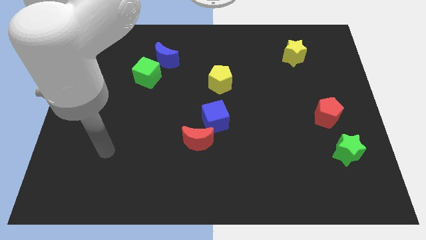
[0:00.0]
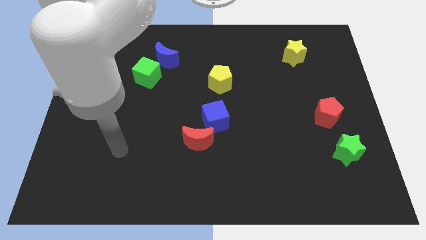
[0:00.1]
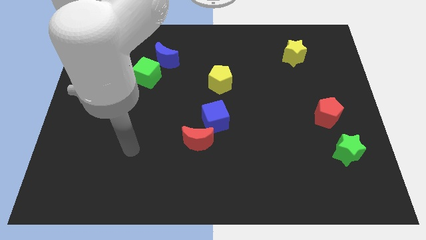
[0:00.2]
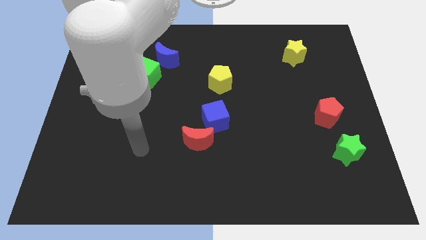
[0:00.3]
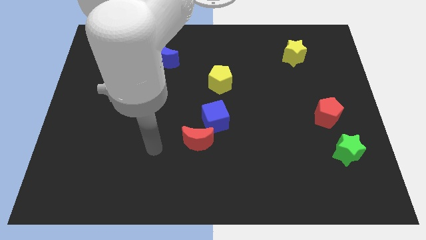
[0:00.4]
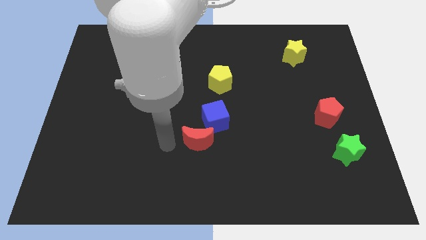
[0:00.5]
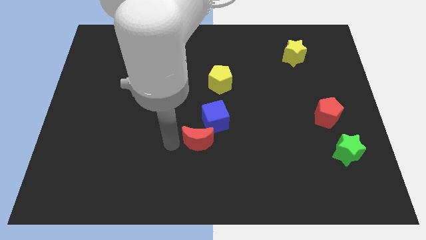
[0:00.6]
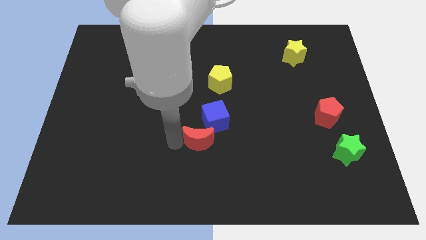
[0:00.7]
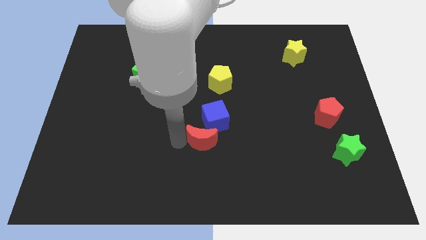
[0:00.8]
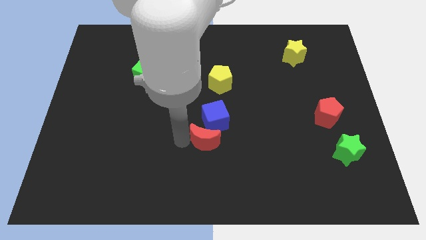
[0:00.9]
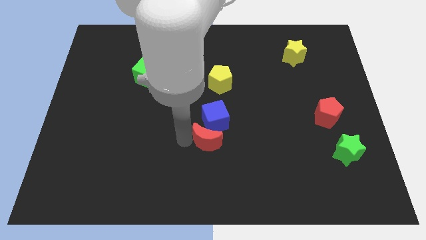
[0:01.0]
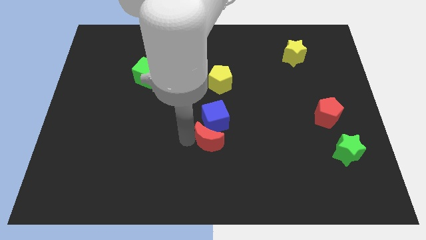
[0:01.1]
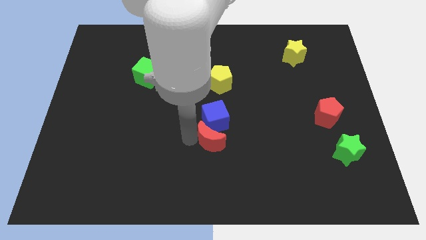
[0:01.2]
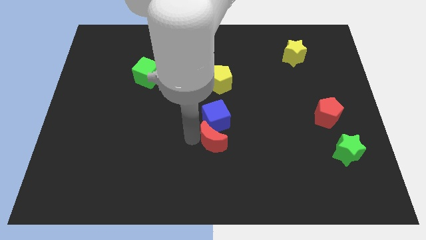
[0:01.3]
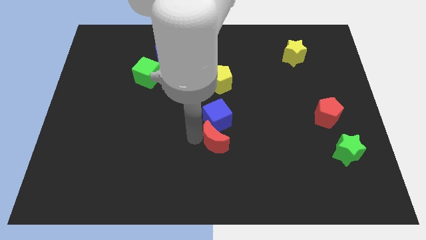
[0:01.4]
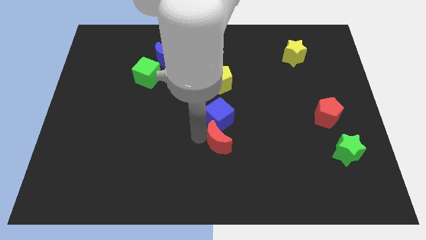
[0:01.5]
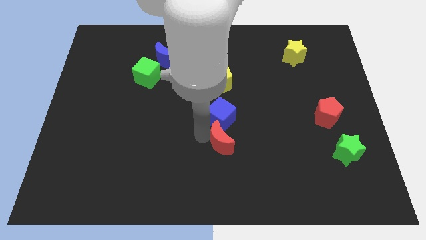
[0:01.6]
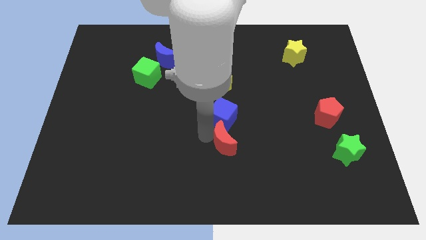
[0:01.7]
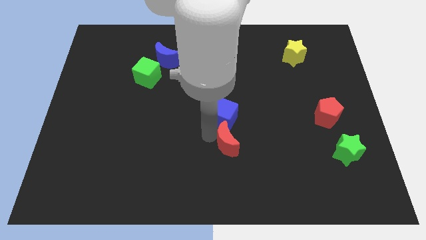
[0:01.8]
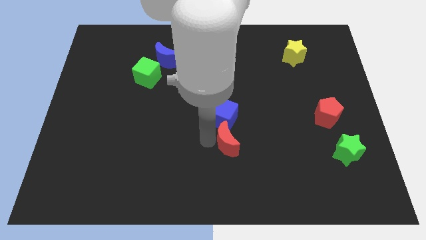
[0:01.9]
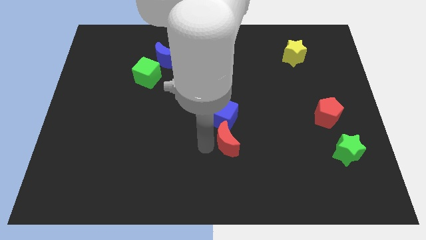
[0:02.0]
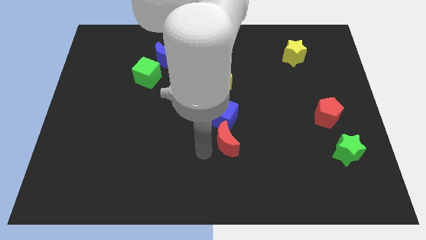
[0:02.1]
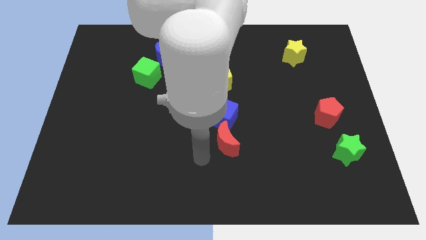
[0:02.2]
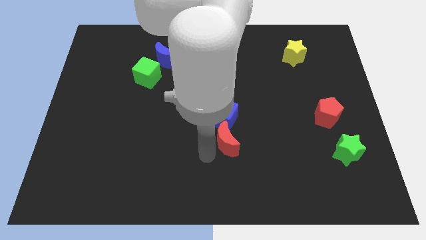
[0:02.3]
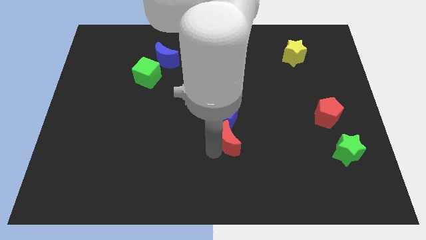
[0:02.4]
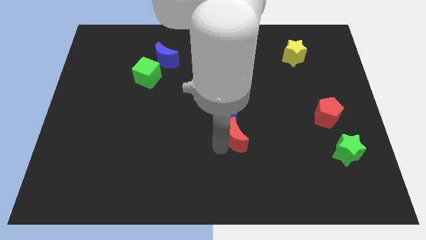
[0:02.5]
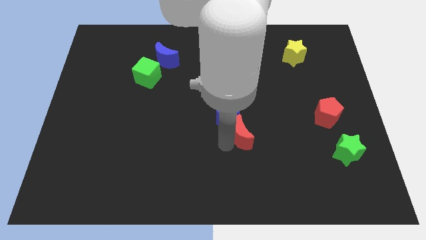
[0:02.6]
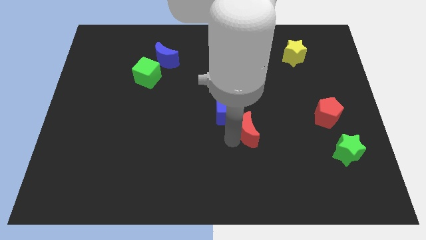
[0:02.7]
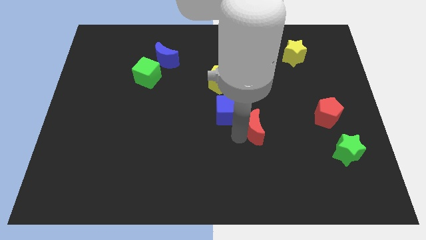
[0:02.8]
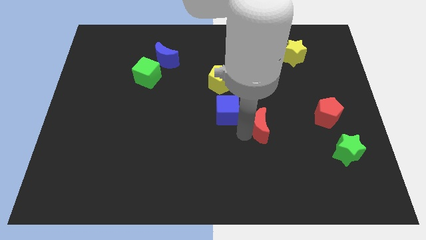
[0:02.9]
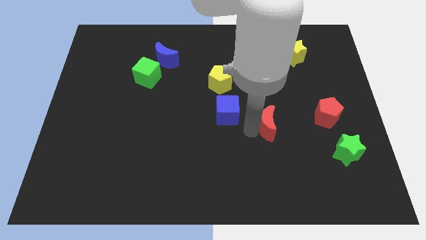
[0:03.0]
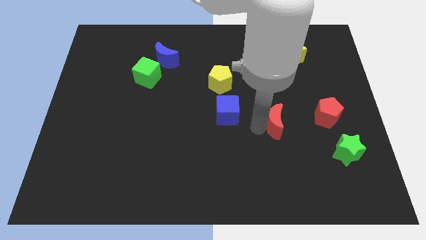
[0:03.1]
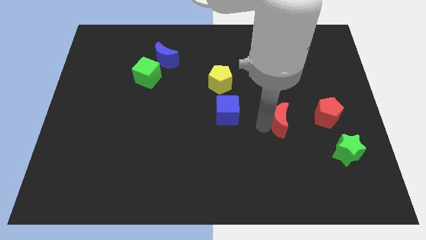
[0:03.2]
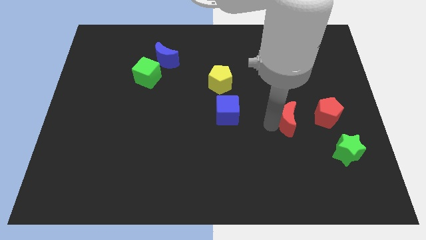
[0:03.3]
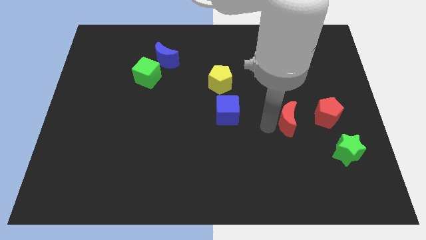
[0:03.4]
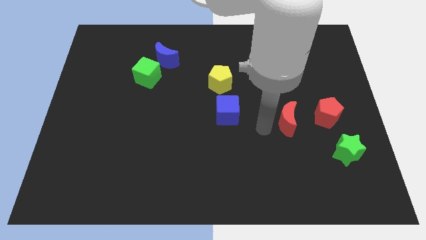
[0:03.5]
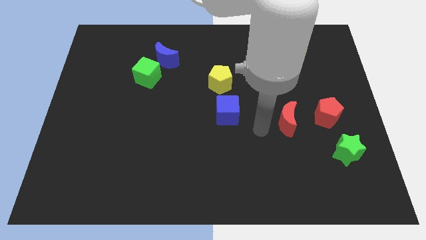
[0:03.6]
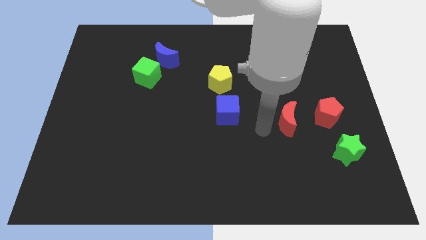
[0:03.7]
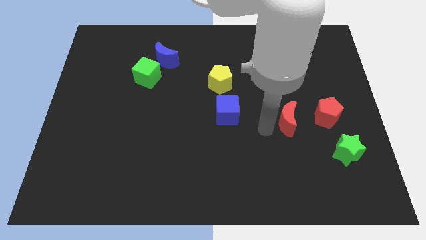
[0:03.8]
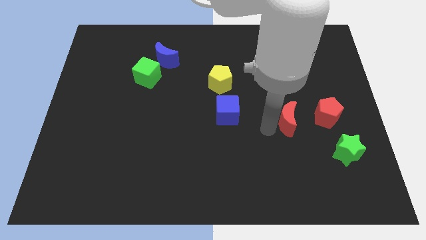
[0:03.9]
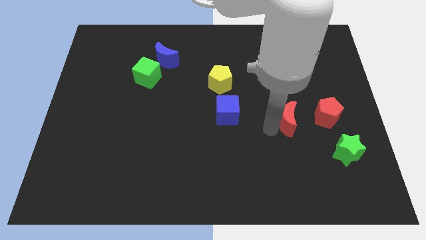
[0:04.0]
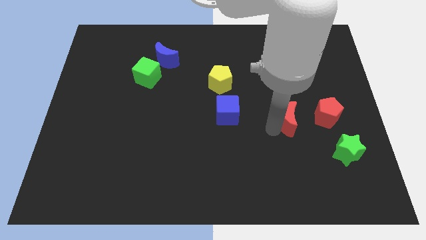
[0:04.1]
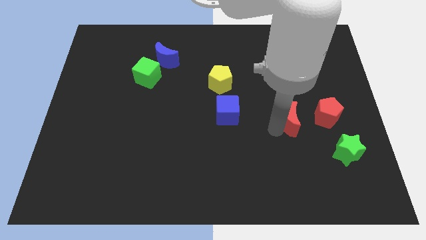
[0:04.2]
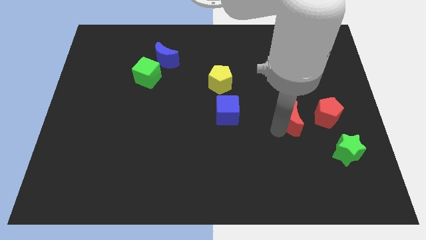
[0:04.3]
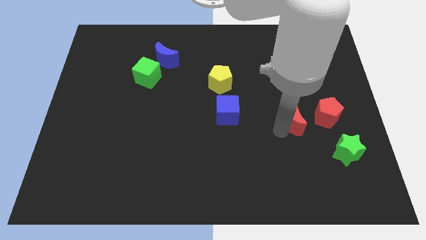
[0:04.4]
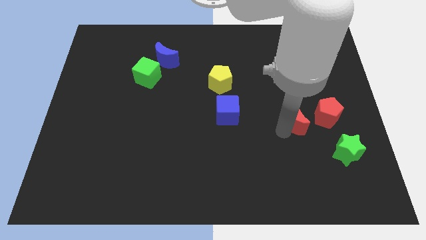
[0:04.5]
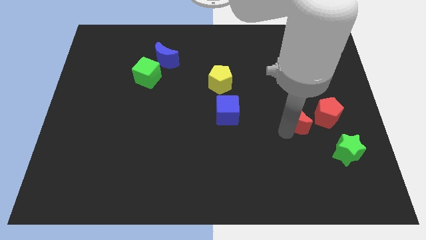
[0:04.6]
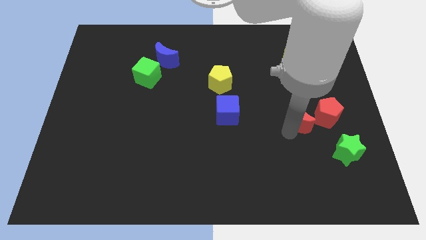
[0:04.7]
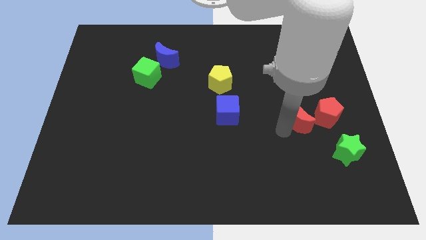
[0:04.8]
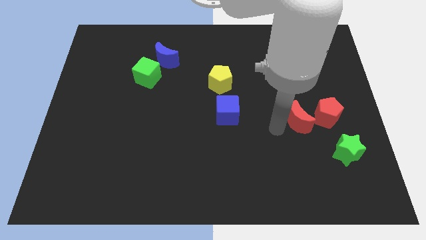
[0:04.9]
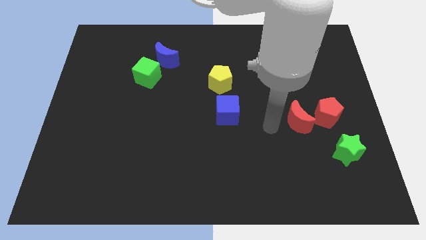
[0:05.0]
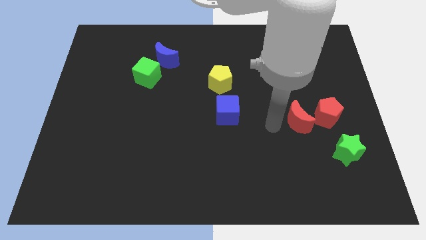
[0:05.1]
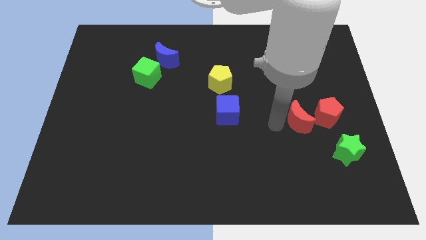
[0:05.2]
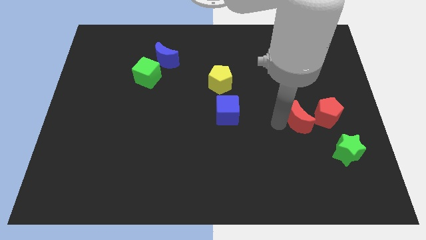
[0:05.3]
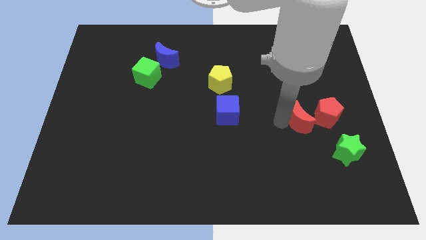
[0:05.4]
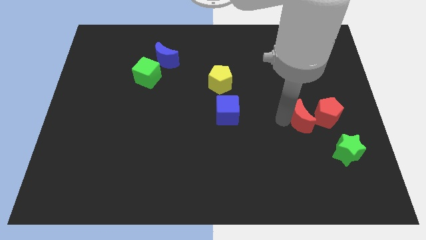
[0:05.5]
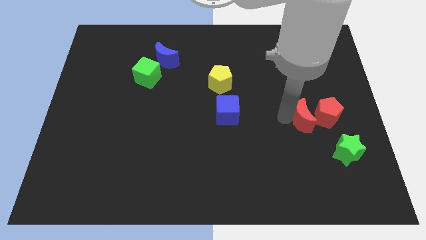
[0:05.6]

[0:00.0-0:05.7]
slide the red moon to the red pentagon
